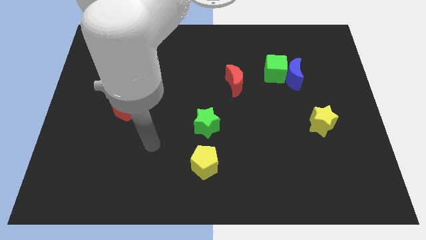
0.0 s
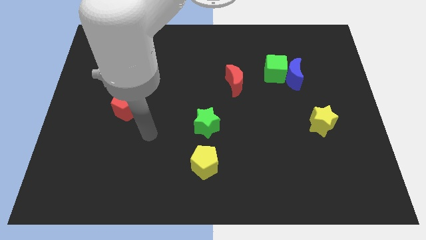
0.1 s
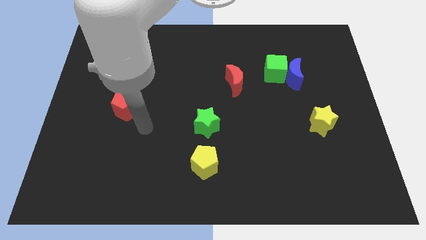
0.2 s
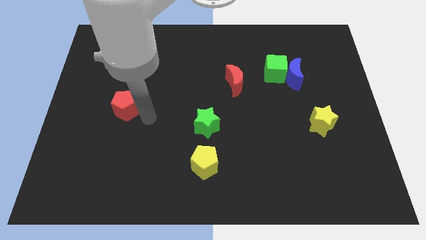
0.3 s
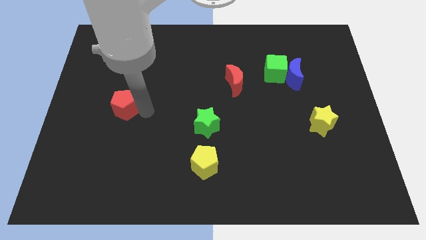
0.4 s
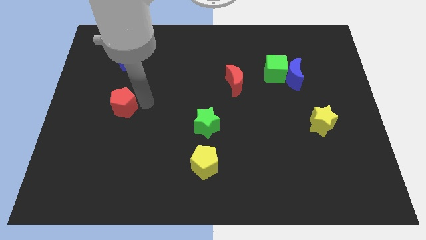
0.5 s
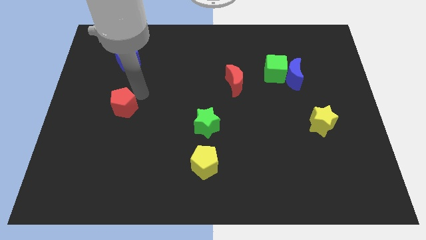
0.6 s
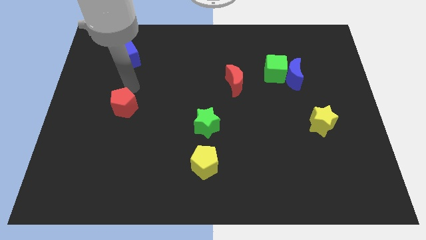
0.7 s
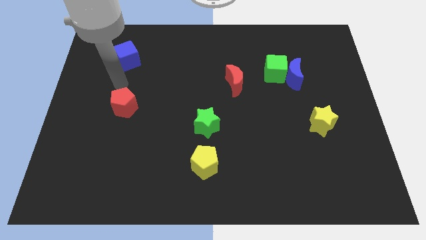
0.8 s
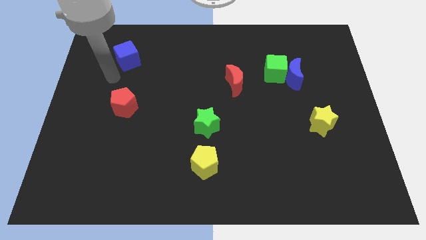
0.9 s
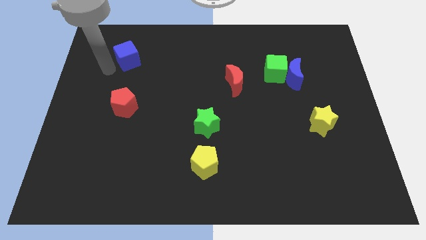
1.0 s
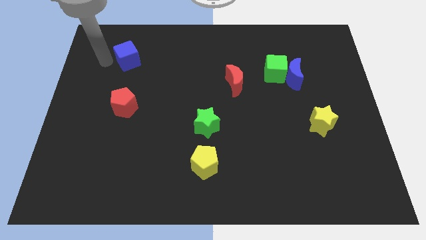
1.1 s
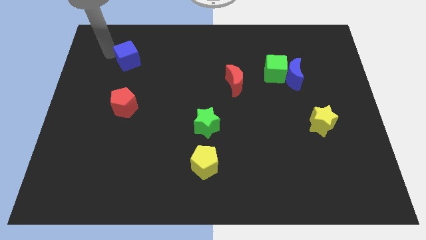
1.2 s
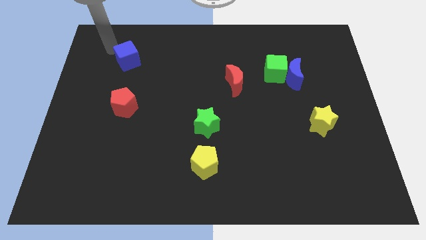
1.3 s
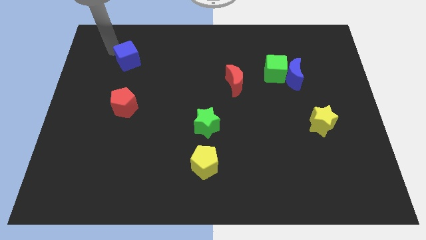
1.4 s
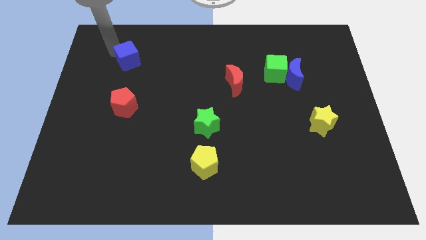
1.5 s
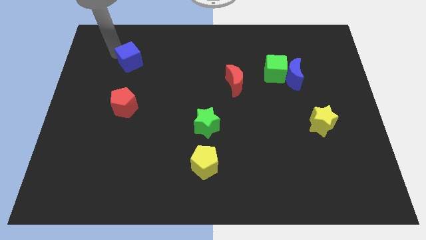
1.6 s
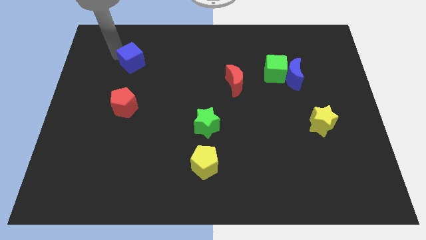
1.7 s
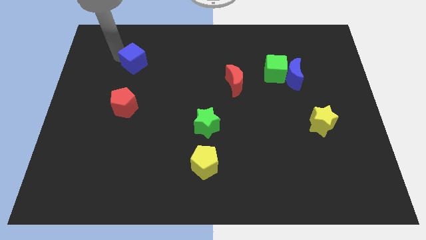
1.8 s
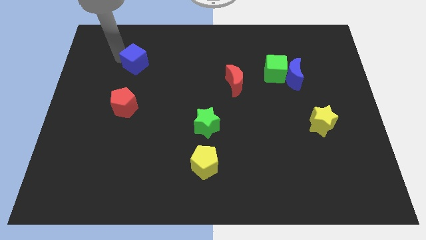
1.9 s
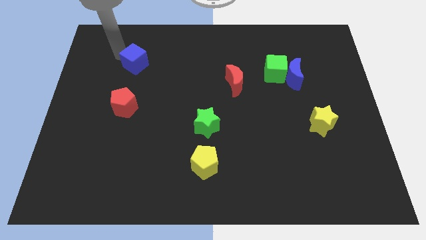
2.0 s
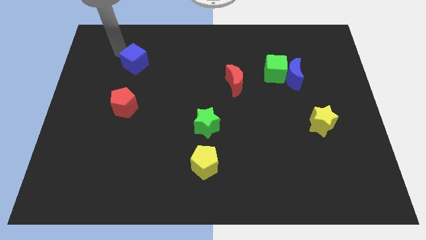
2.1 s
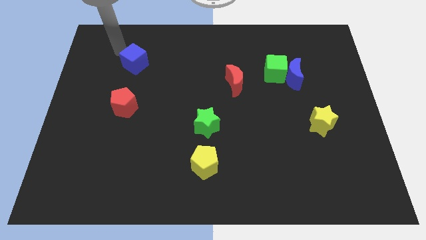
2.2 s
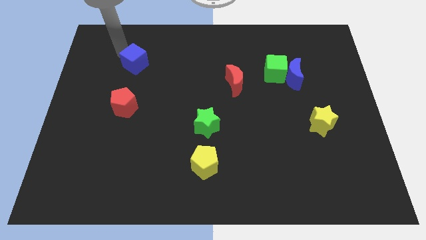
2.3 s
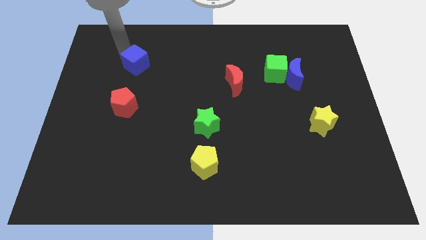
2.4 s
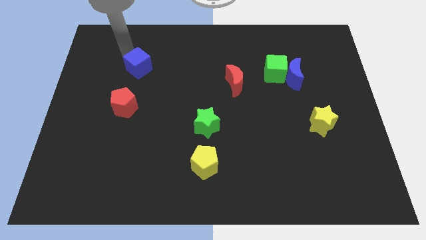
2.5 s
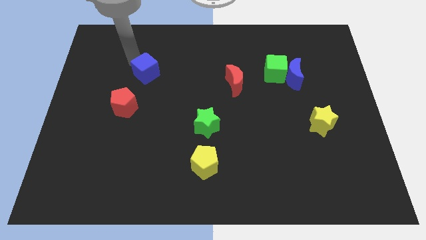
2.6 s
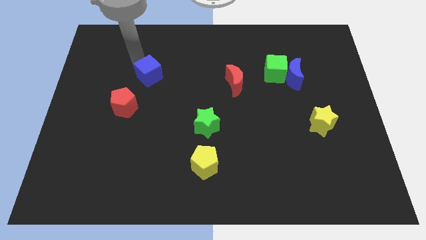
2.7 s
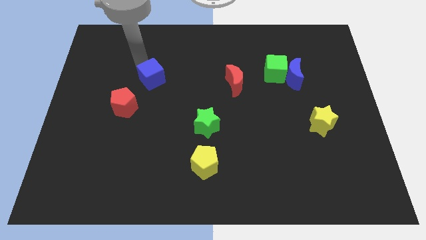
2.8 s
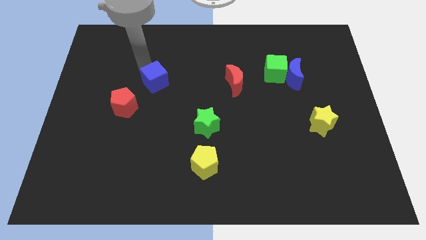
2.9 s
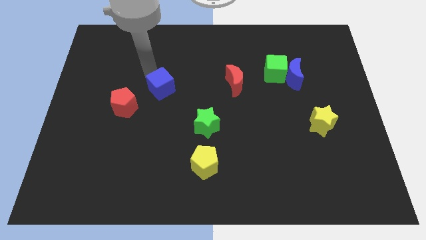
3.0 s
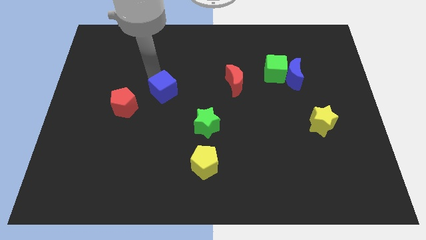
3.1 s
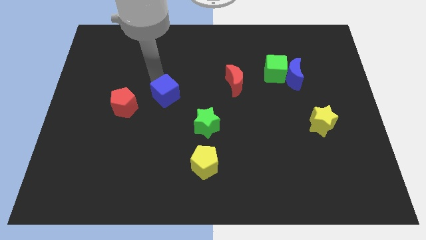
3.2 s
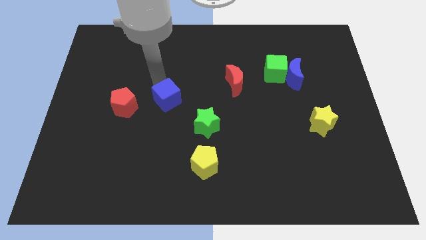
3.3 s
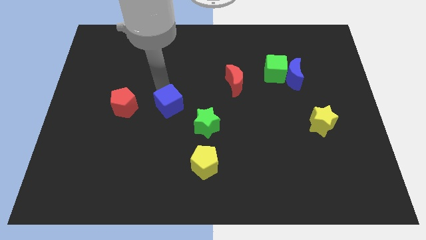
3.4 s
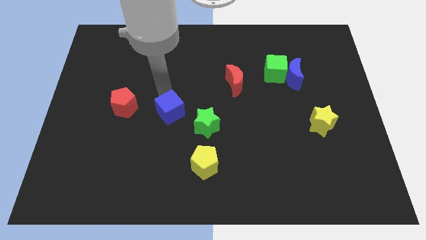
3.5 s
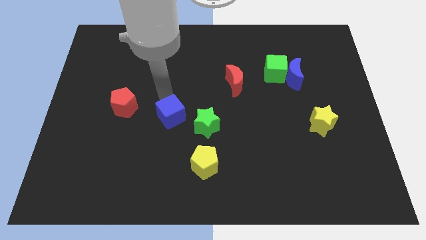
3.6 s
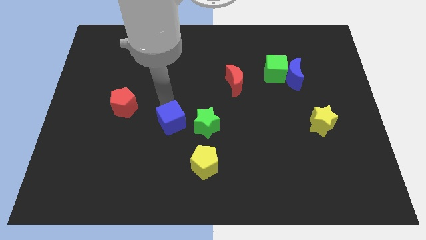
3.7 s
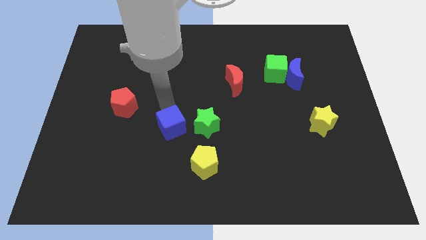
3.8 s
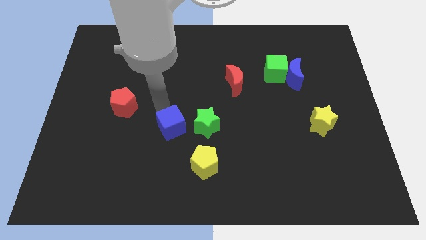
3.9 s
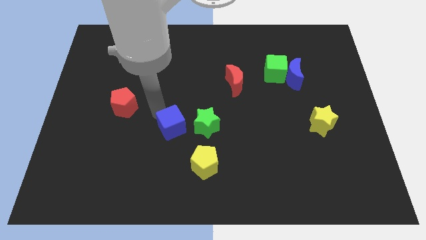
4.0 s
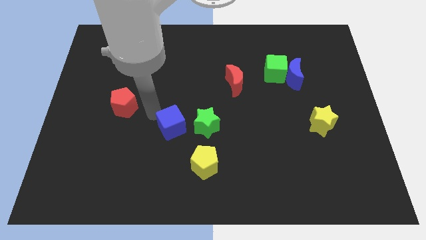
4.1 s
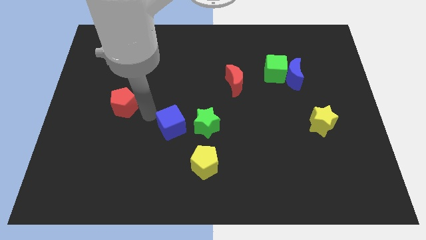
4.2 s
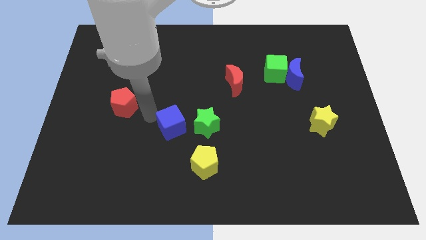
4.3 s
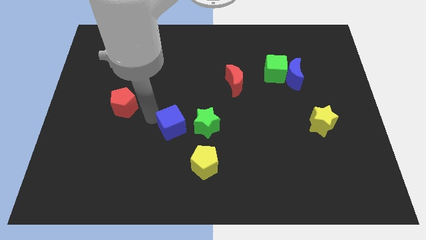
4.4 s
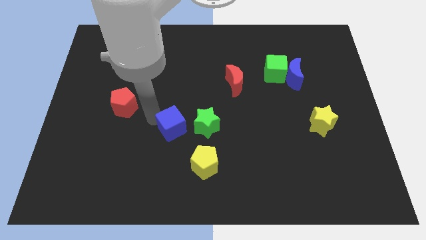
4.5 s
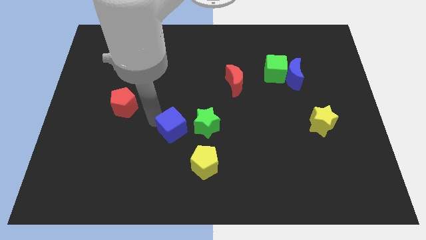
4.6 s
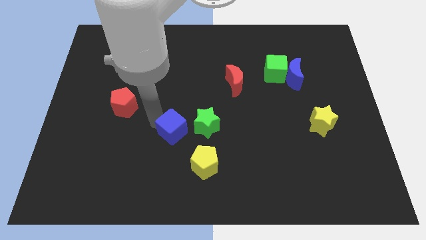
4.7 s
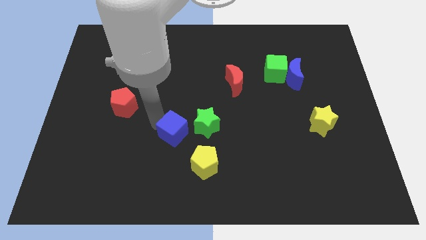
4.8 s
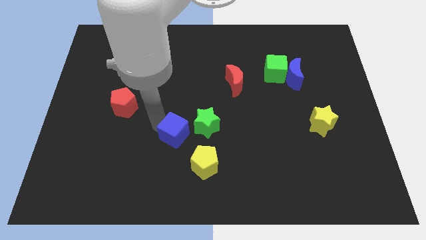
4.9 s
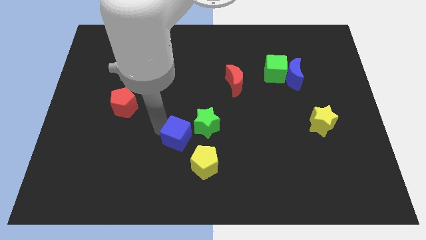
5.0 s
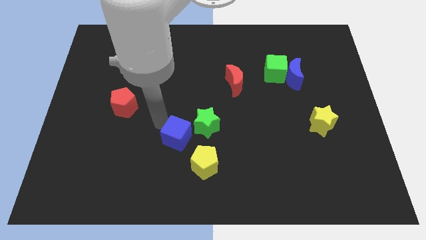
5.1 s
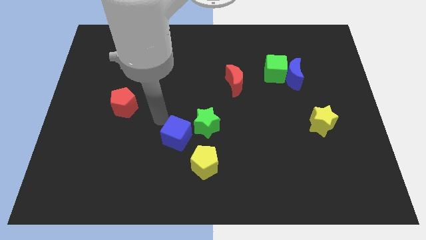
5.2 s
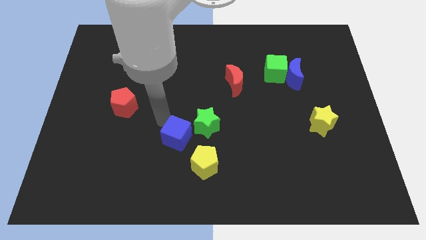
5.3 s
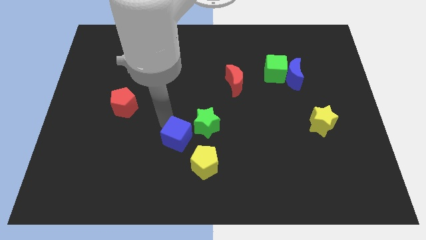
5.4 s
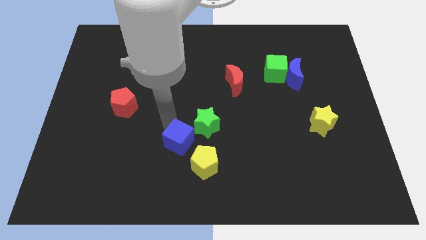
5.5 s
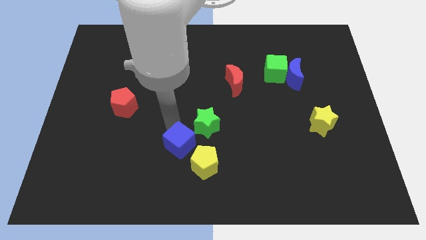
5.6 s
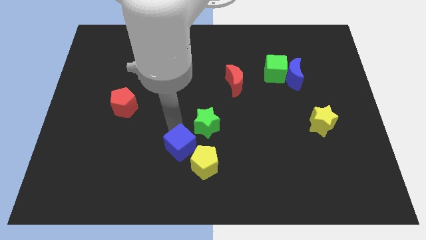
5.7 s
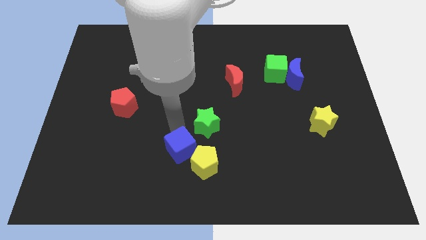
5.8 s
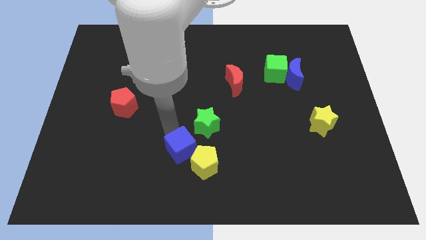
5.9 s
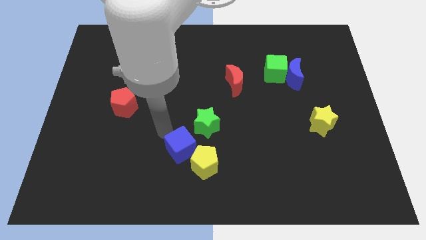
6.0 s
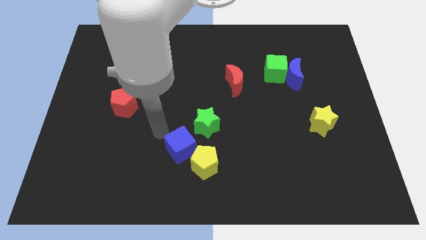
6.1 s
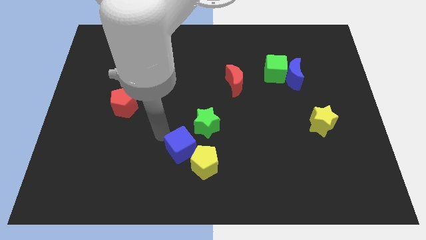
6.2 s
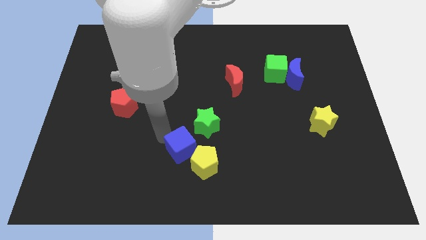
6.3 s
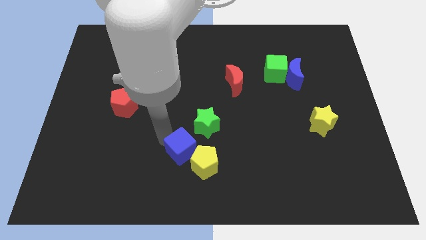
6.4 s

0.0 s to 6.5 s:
put the blue cube next to the yellow pentagon
